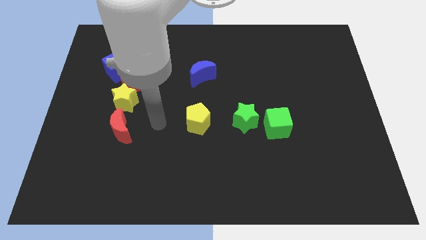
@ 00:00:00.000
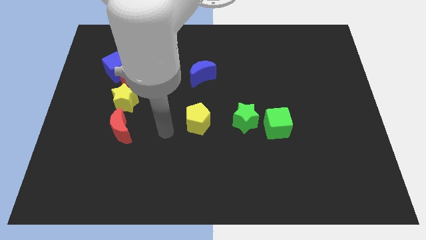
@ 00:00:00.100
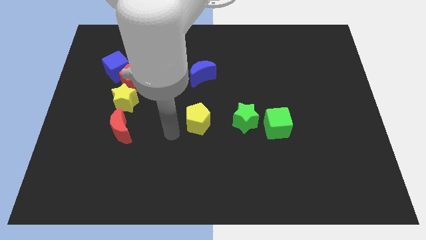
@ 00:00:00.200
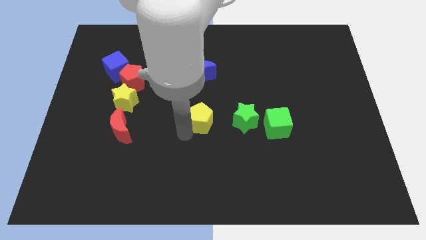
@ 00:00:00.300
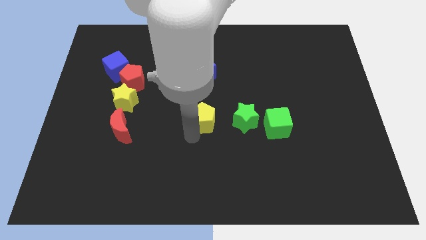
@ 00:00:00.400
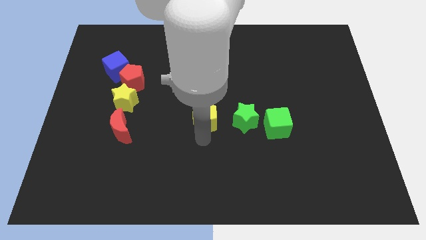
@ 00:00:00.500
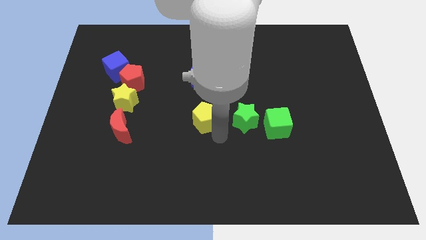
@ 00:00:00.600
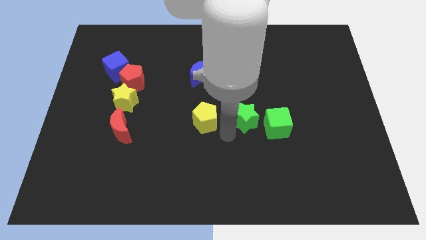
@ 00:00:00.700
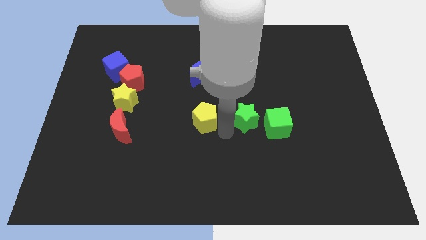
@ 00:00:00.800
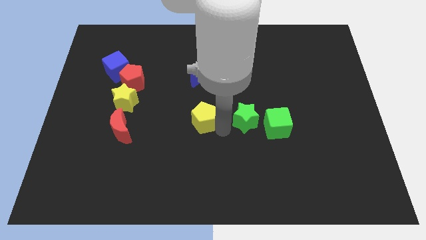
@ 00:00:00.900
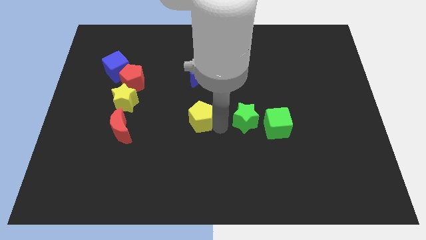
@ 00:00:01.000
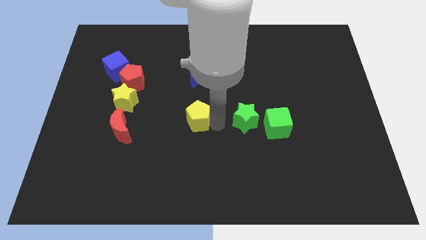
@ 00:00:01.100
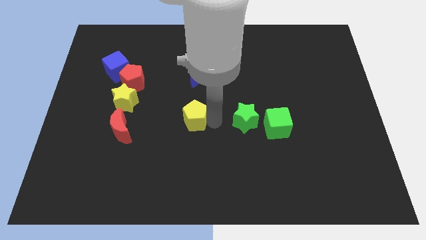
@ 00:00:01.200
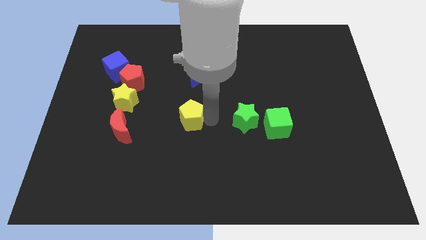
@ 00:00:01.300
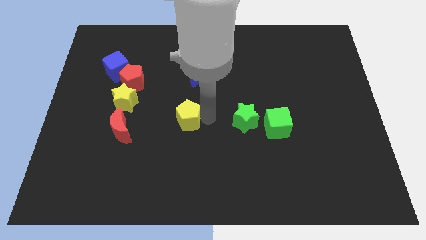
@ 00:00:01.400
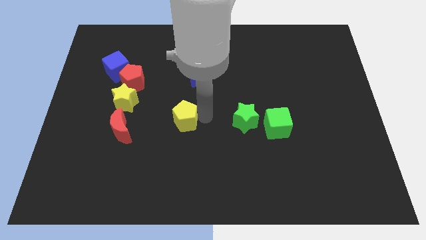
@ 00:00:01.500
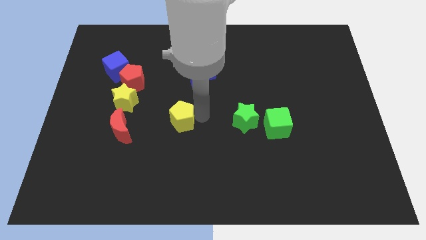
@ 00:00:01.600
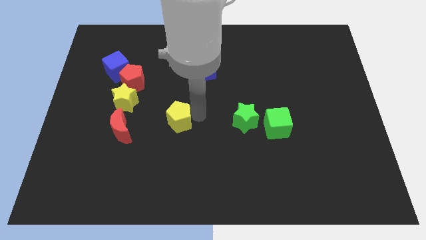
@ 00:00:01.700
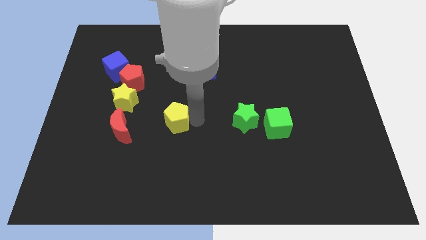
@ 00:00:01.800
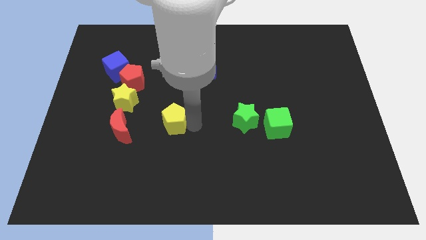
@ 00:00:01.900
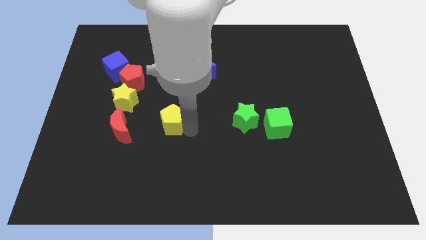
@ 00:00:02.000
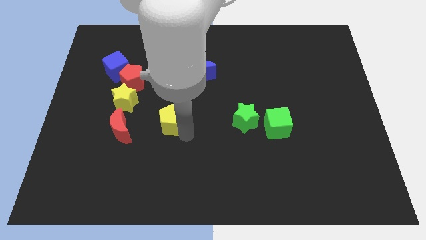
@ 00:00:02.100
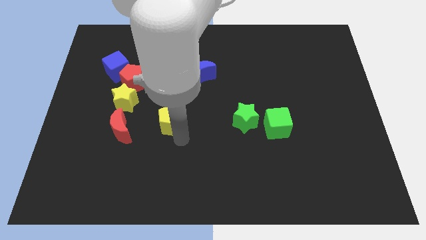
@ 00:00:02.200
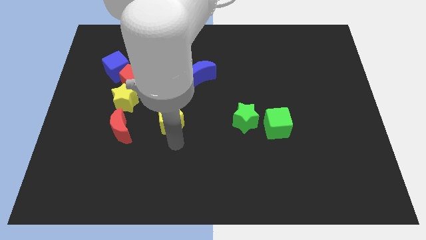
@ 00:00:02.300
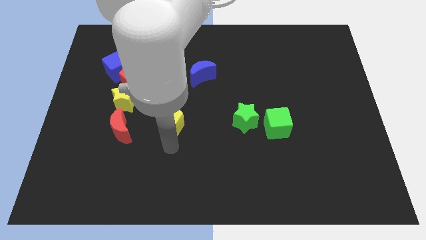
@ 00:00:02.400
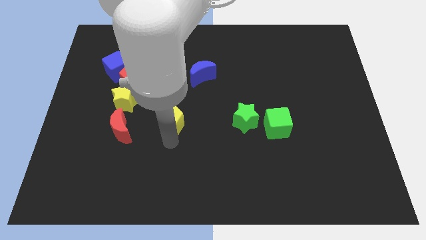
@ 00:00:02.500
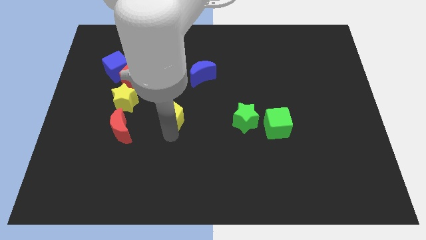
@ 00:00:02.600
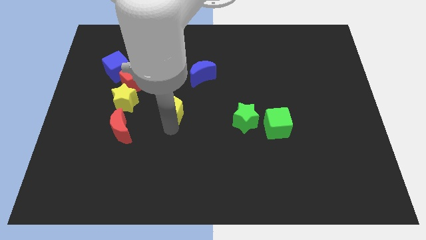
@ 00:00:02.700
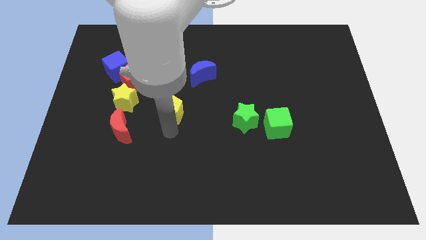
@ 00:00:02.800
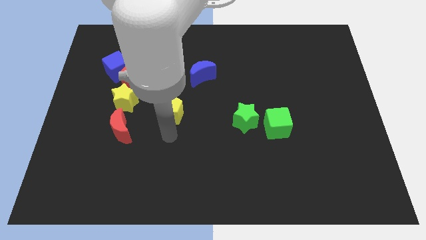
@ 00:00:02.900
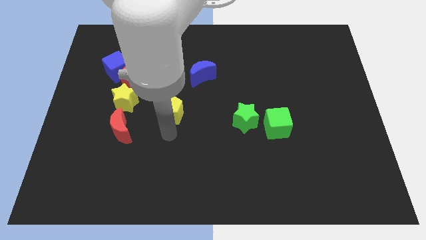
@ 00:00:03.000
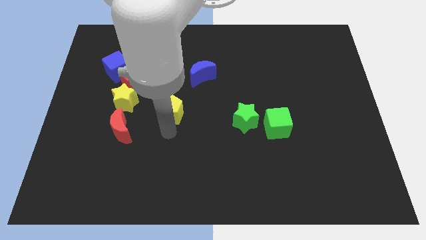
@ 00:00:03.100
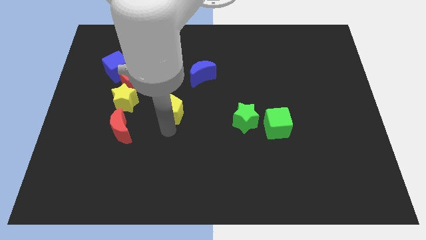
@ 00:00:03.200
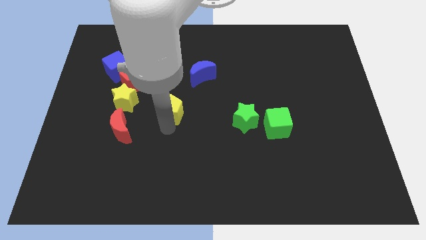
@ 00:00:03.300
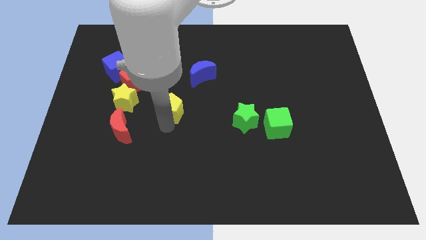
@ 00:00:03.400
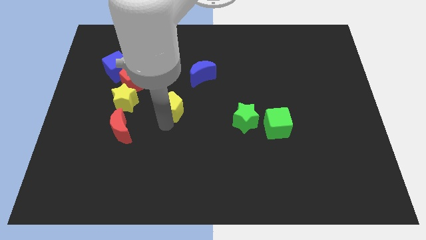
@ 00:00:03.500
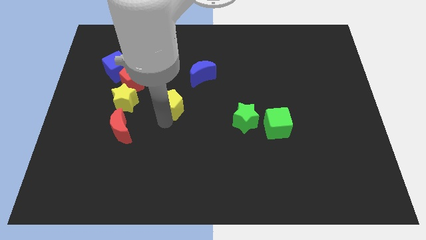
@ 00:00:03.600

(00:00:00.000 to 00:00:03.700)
slide the yellow pentagon diagonally down and to the right of the red pentagon

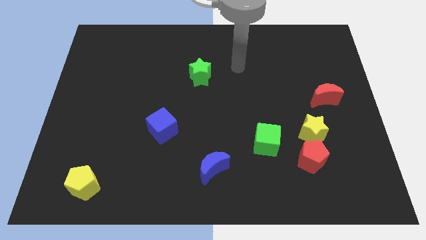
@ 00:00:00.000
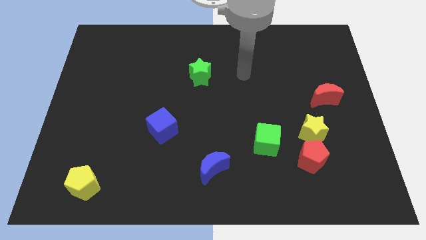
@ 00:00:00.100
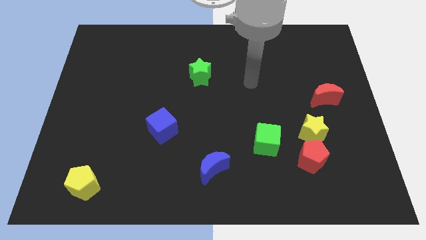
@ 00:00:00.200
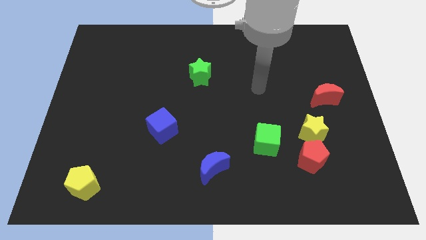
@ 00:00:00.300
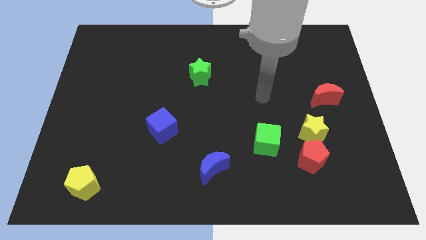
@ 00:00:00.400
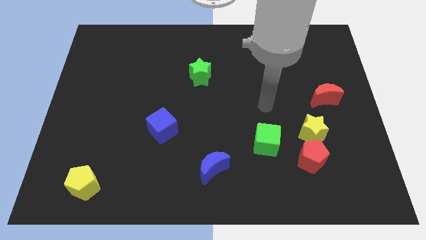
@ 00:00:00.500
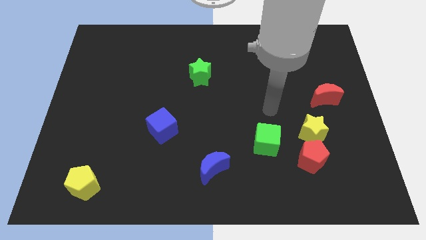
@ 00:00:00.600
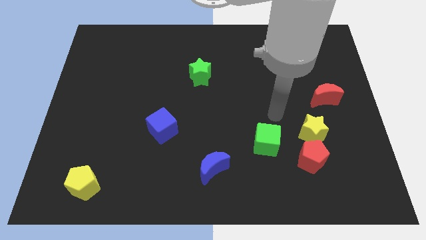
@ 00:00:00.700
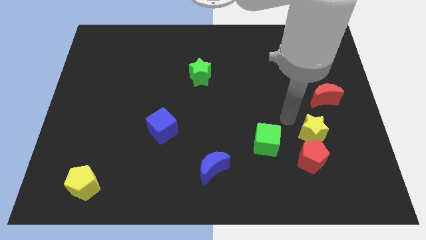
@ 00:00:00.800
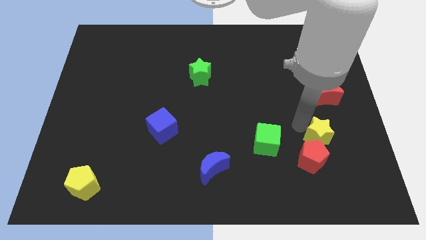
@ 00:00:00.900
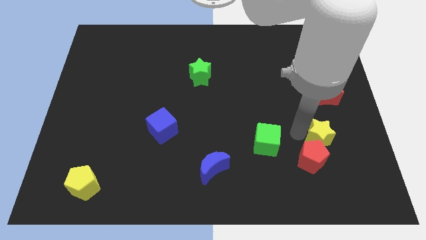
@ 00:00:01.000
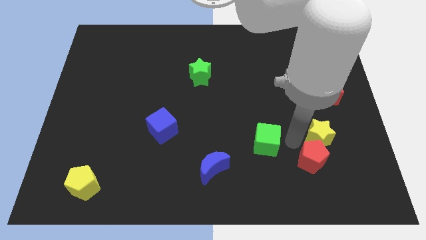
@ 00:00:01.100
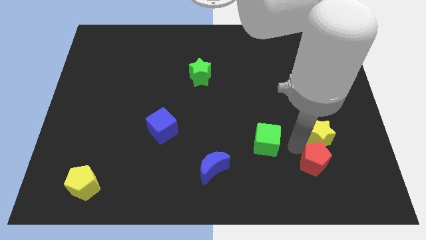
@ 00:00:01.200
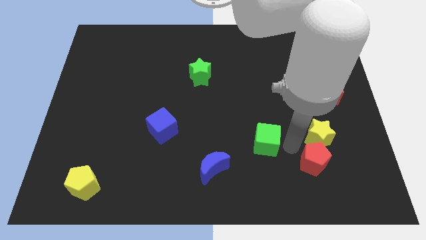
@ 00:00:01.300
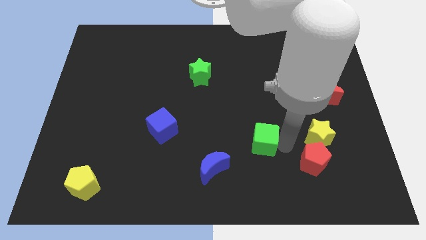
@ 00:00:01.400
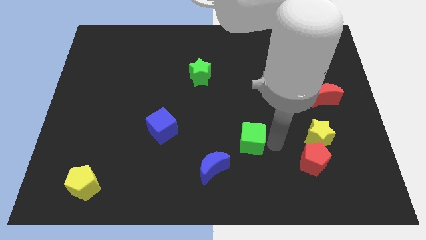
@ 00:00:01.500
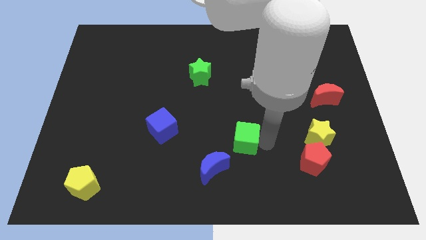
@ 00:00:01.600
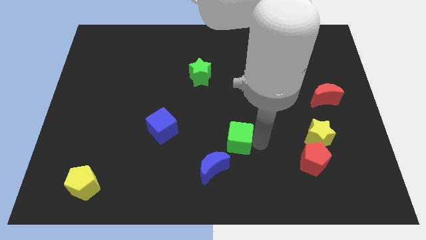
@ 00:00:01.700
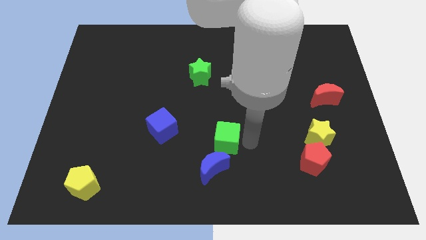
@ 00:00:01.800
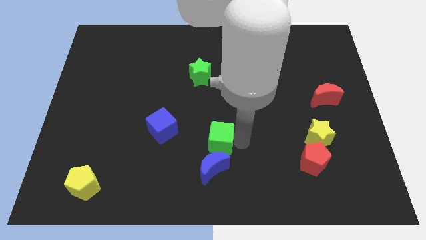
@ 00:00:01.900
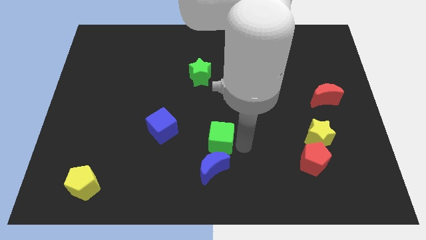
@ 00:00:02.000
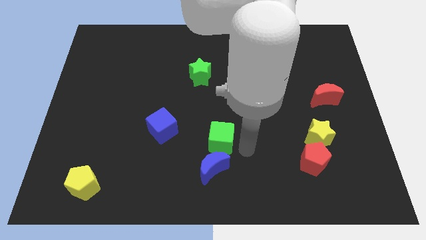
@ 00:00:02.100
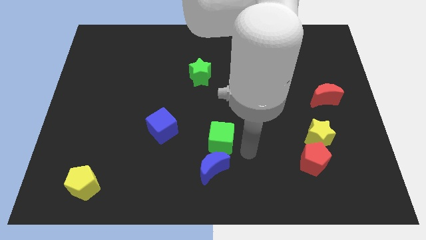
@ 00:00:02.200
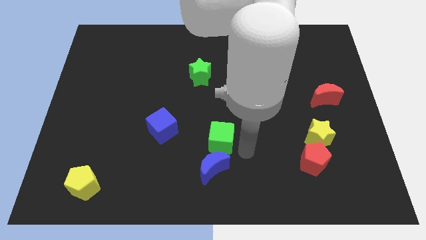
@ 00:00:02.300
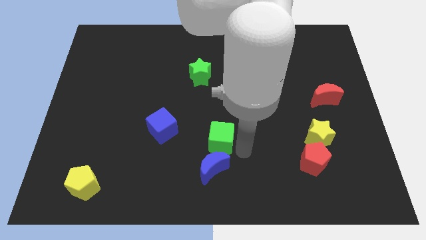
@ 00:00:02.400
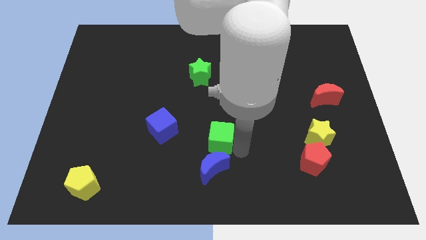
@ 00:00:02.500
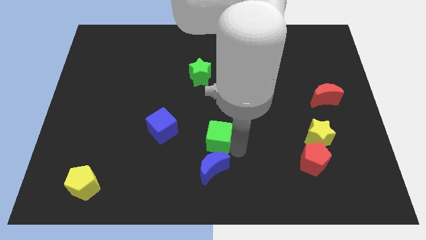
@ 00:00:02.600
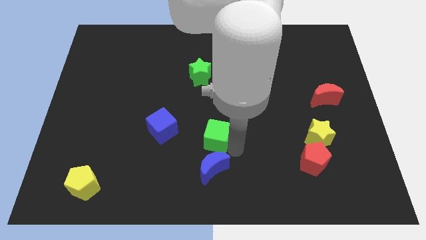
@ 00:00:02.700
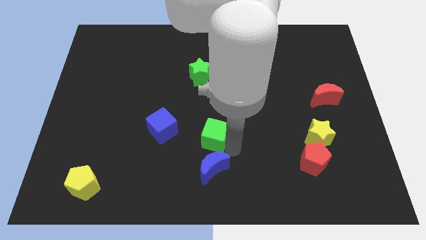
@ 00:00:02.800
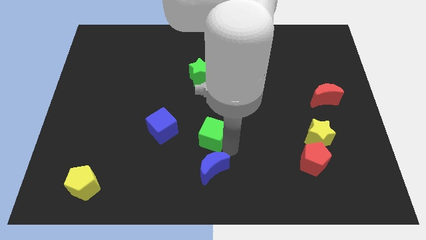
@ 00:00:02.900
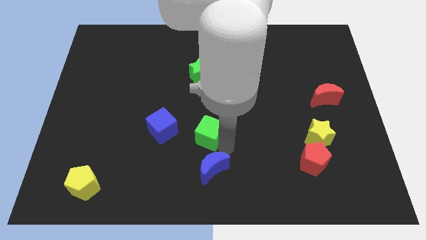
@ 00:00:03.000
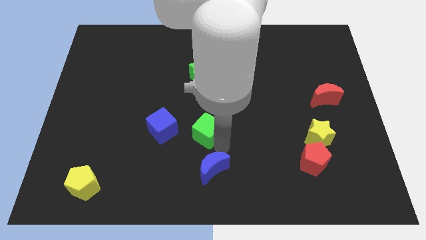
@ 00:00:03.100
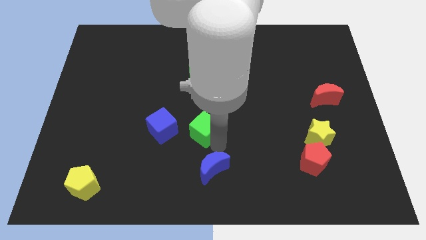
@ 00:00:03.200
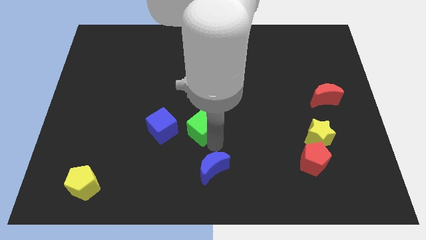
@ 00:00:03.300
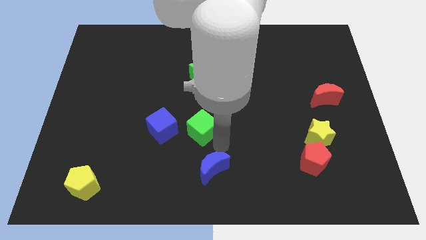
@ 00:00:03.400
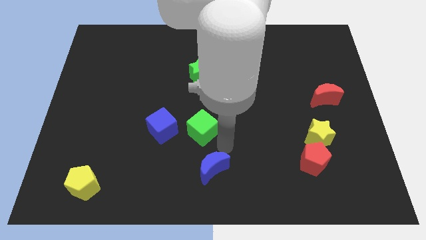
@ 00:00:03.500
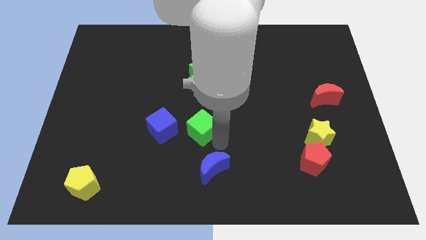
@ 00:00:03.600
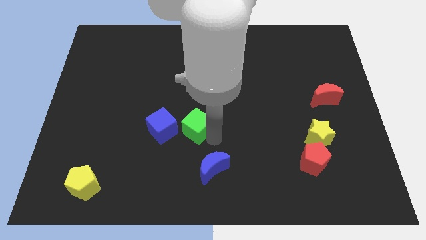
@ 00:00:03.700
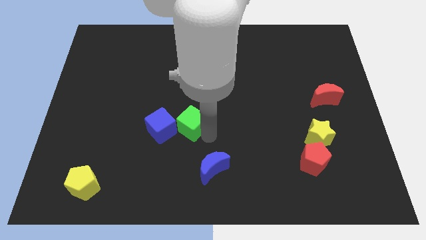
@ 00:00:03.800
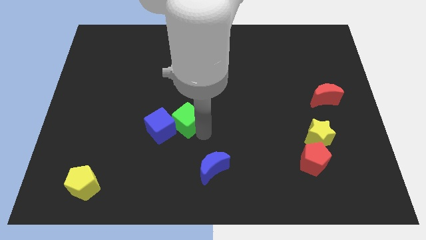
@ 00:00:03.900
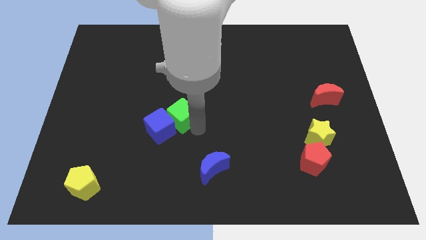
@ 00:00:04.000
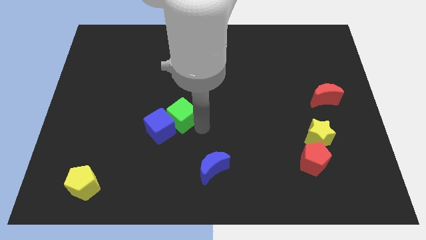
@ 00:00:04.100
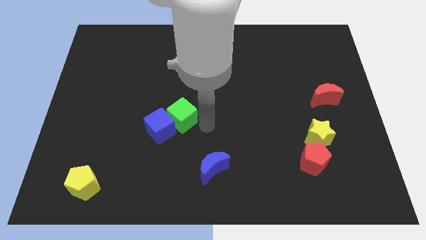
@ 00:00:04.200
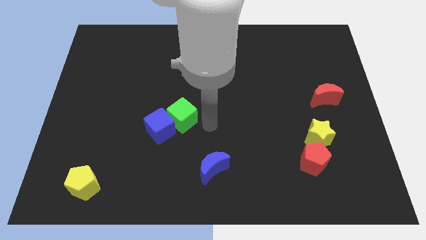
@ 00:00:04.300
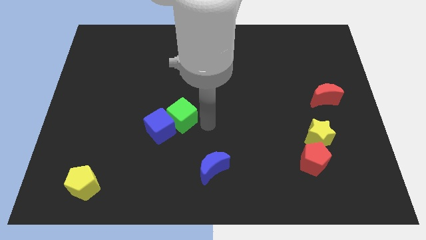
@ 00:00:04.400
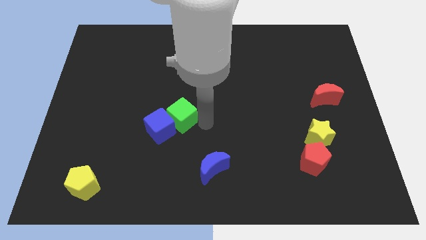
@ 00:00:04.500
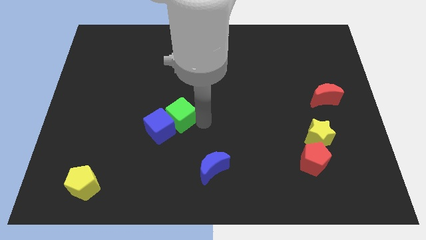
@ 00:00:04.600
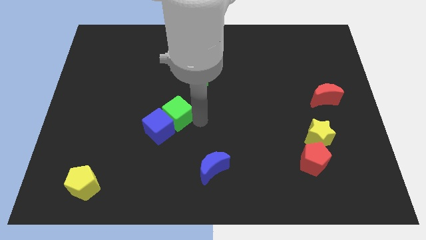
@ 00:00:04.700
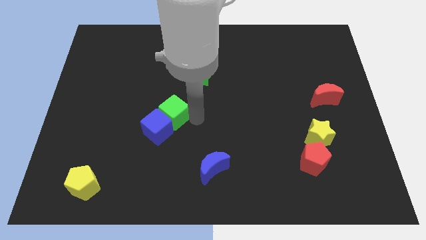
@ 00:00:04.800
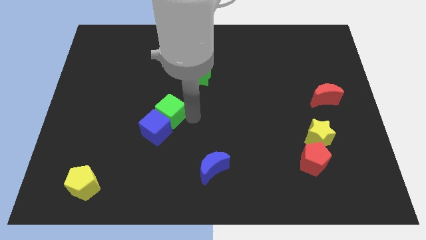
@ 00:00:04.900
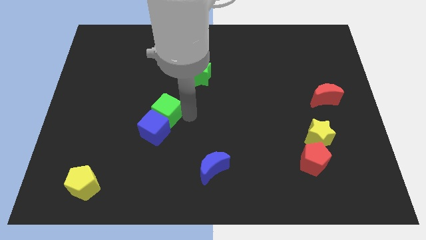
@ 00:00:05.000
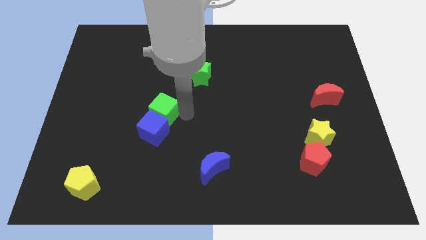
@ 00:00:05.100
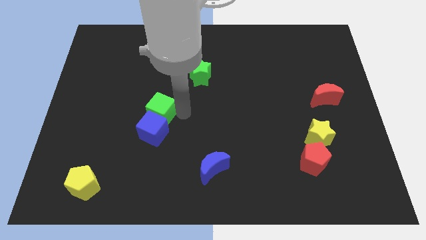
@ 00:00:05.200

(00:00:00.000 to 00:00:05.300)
slide the green cube to the top left side of the blue cube
